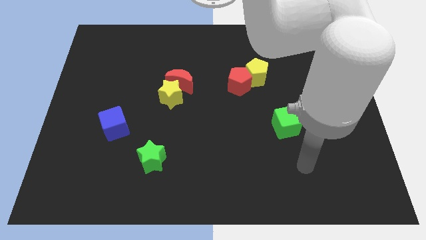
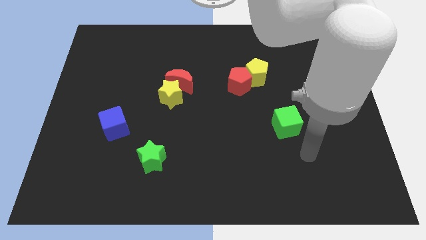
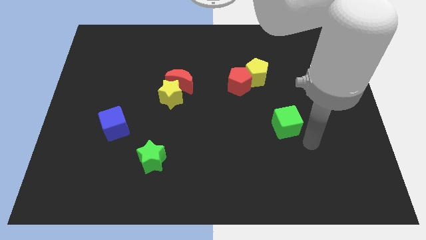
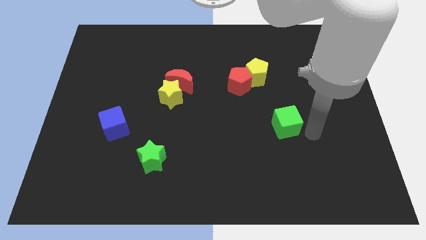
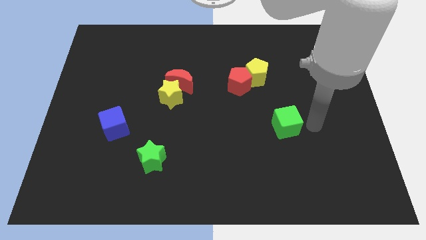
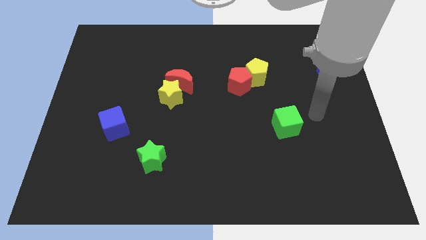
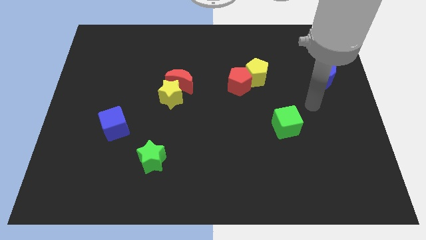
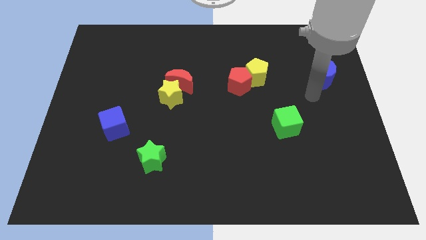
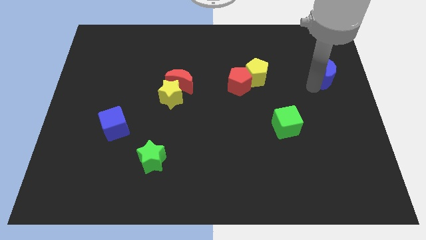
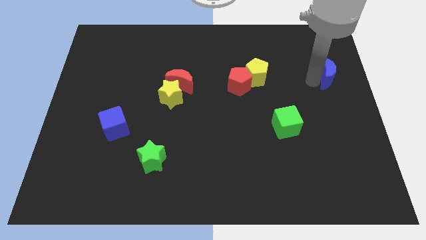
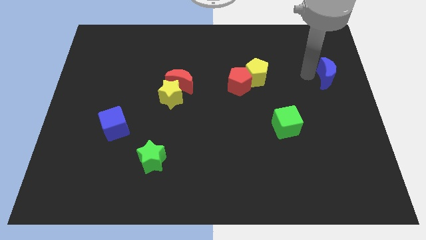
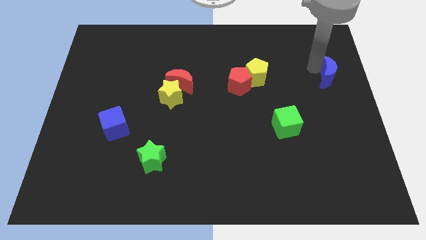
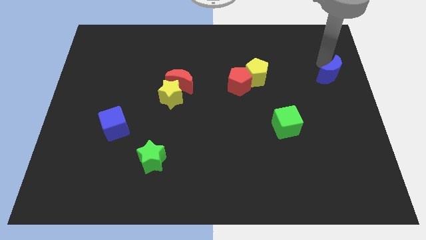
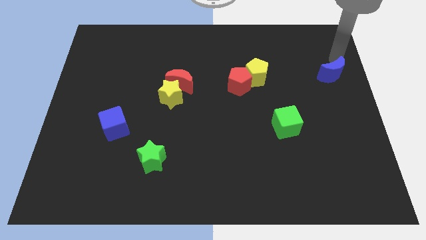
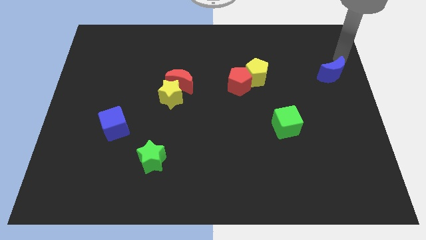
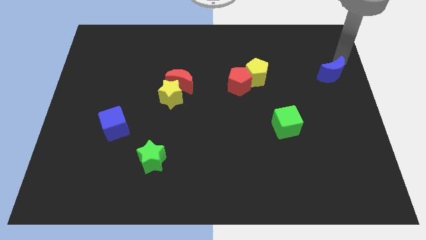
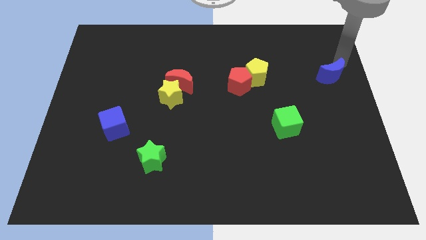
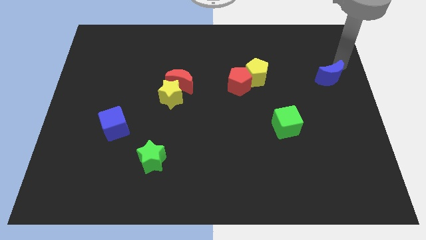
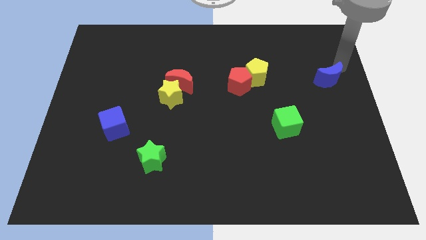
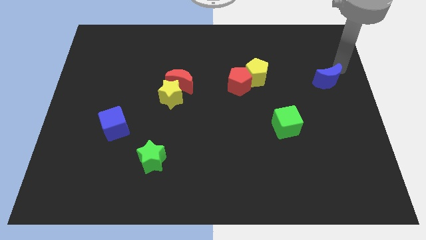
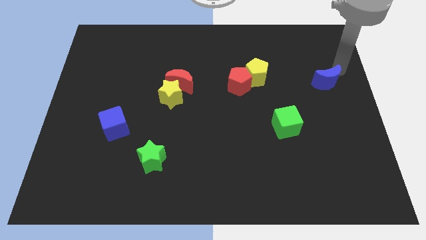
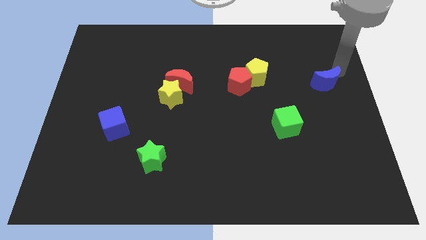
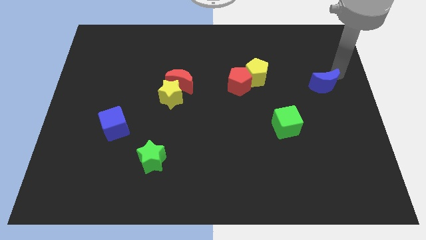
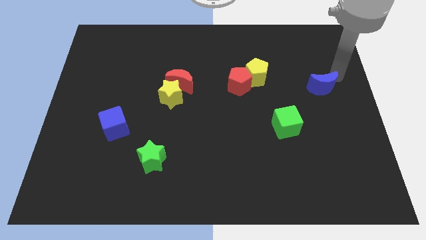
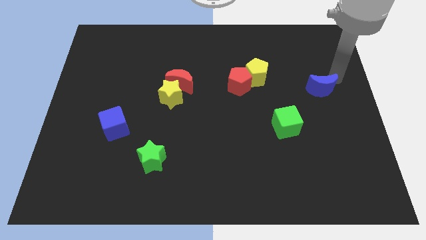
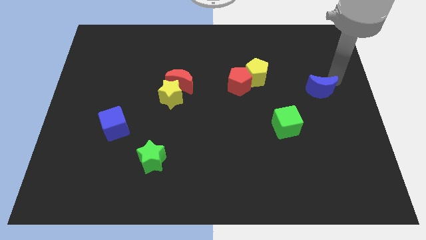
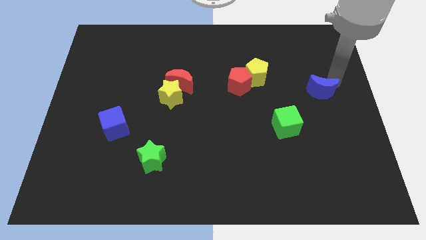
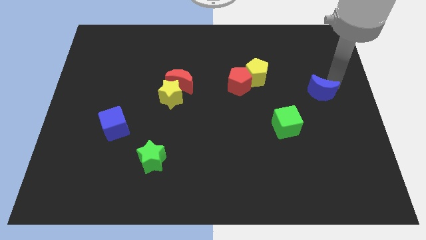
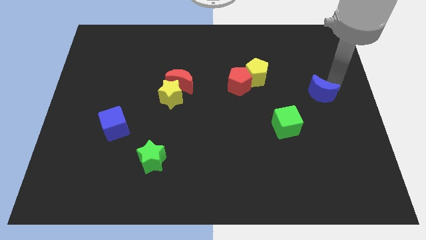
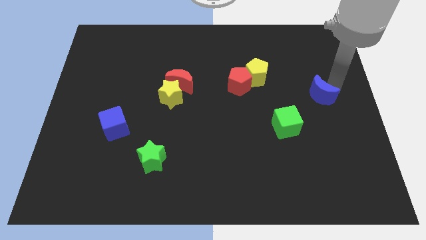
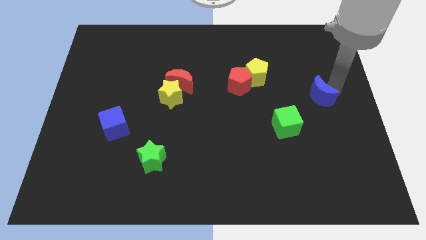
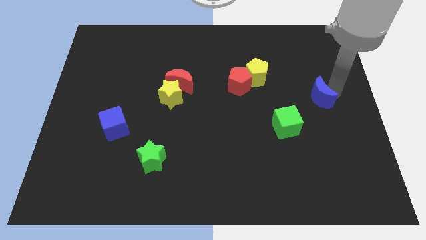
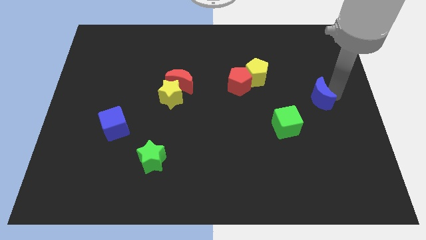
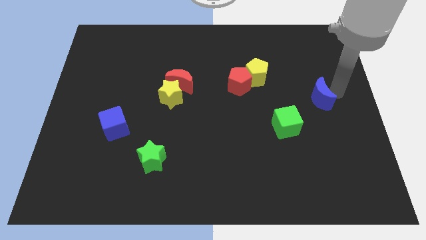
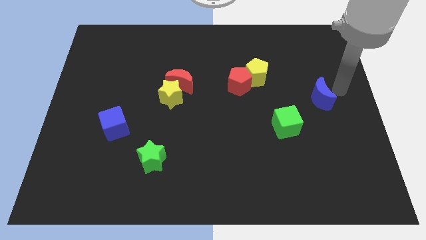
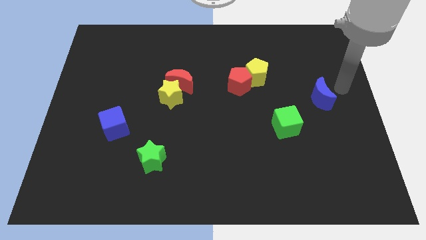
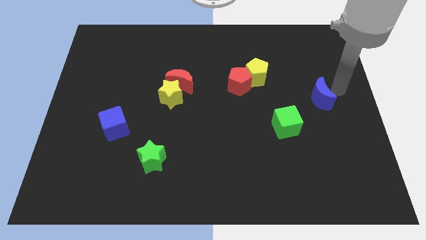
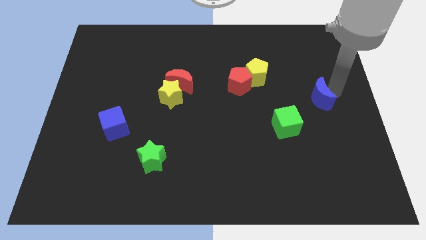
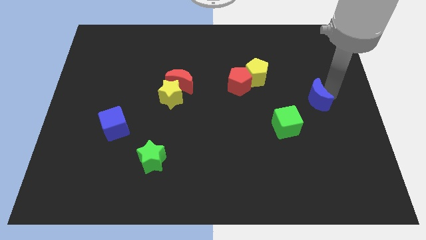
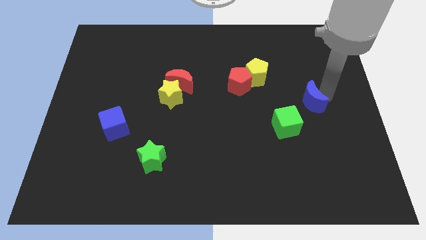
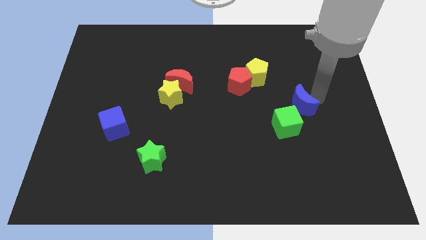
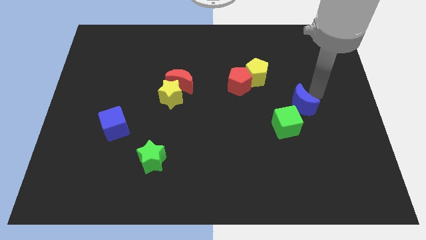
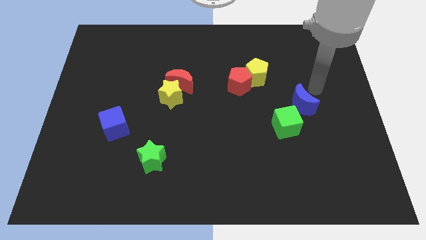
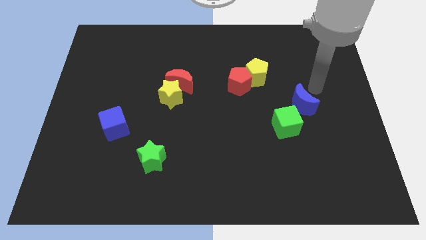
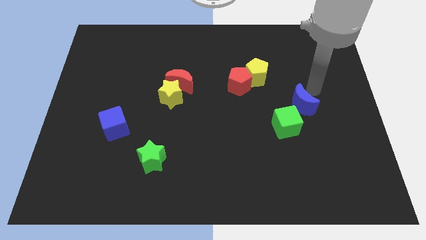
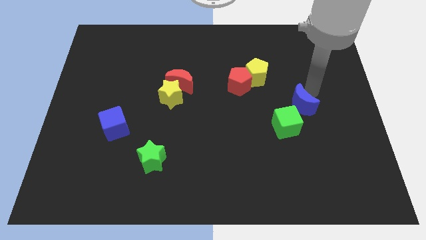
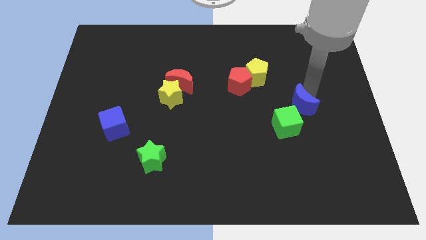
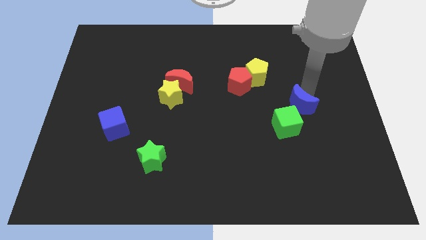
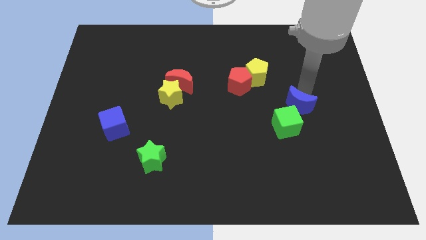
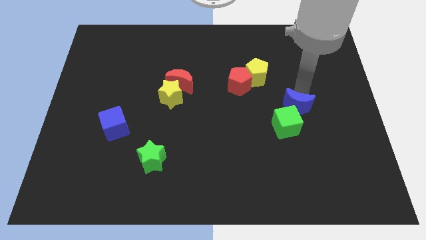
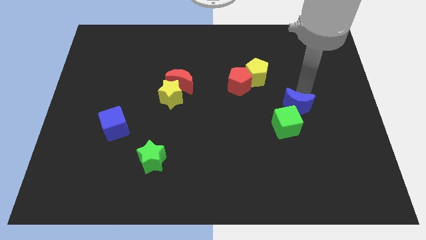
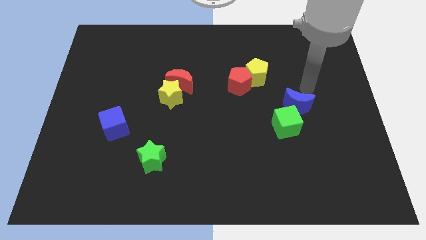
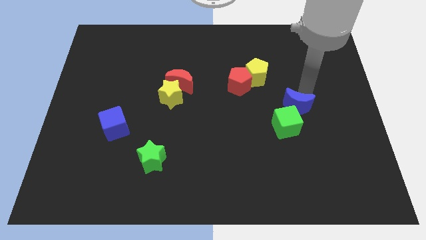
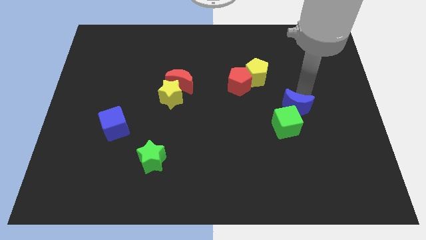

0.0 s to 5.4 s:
put the blue moon close to the green cube

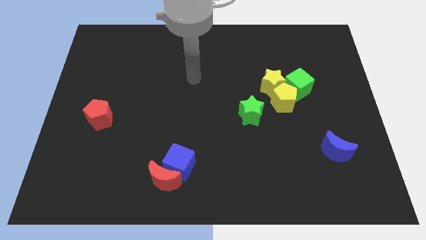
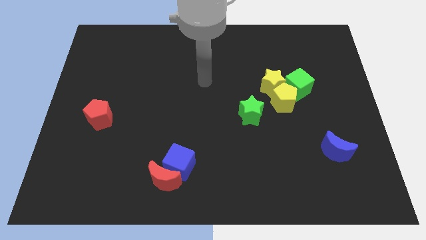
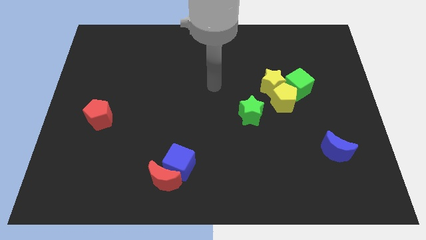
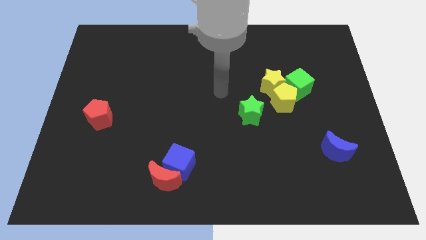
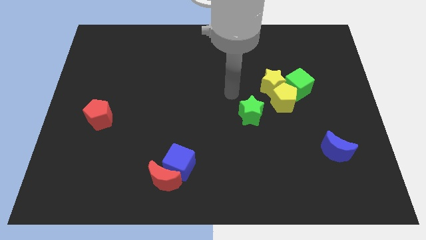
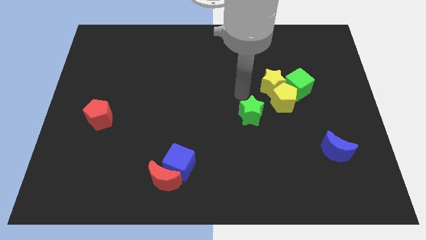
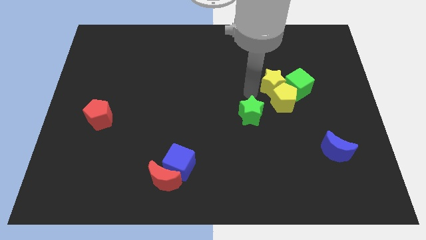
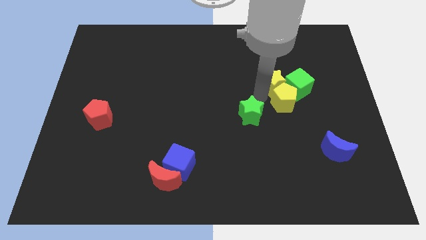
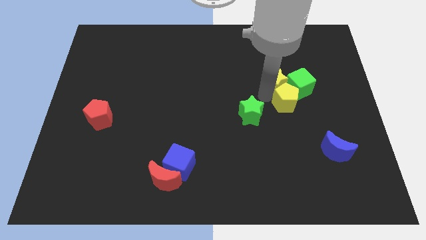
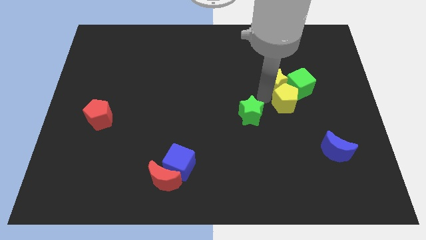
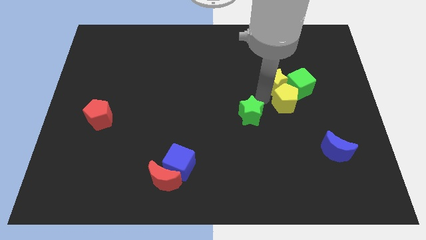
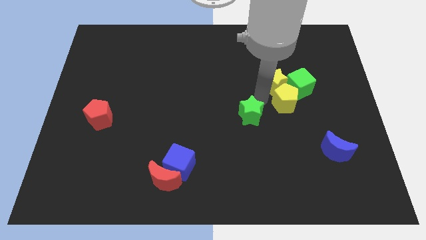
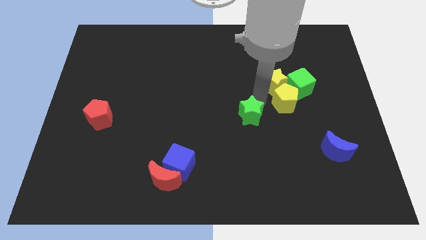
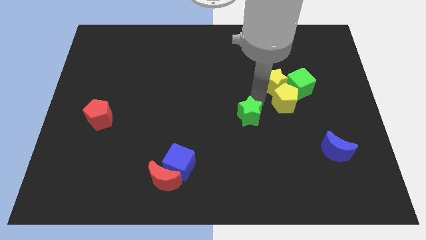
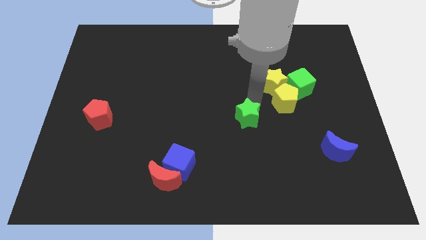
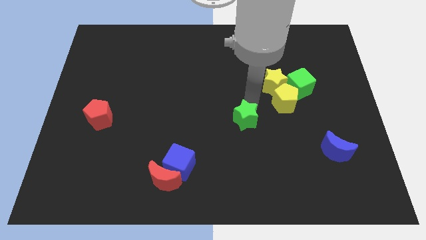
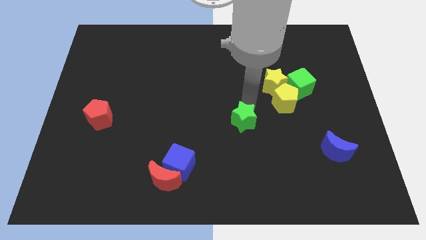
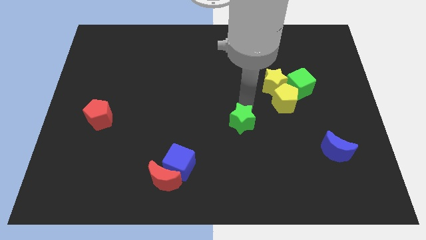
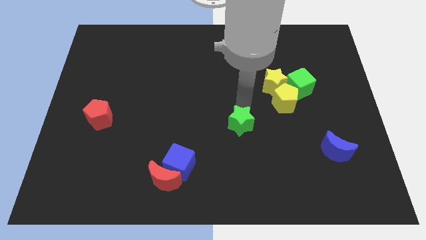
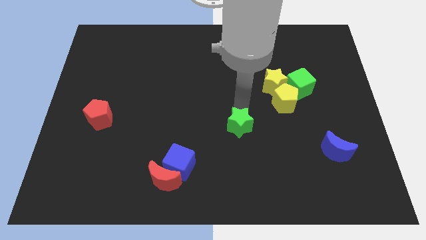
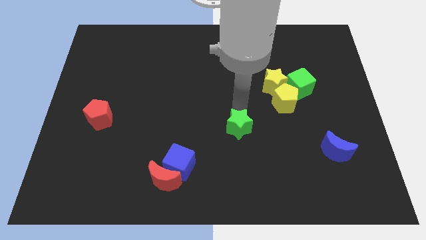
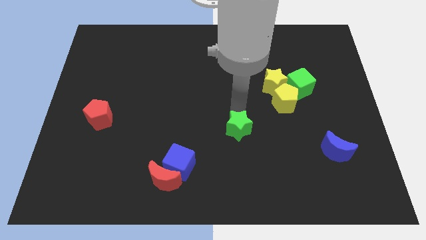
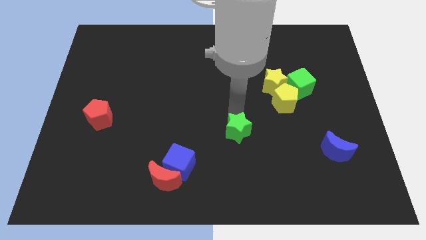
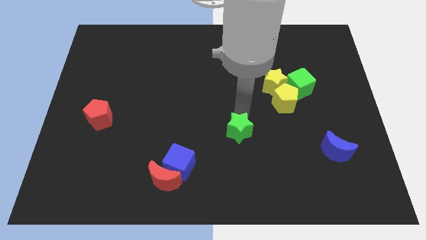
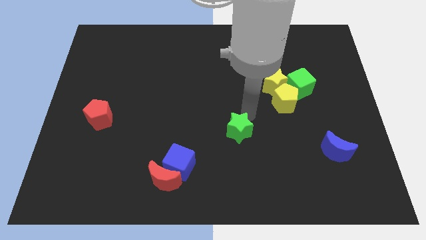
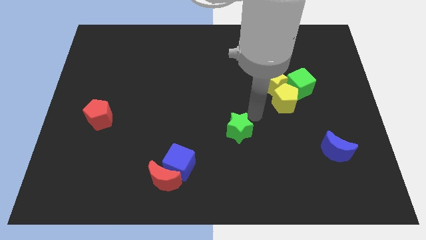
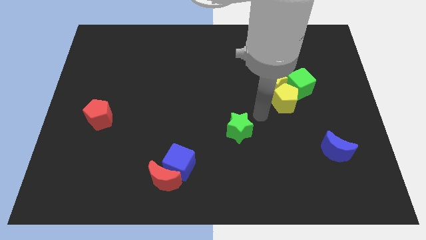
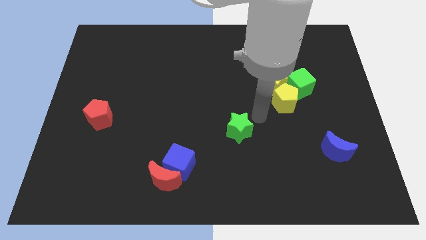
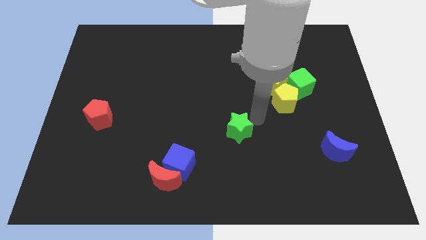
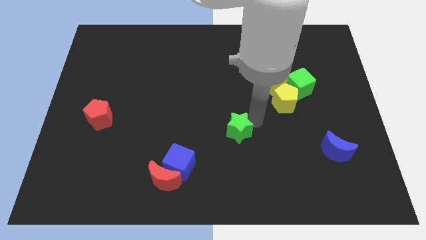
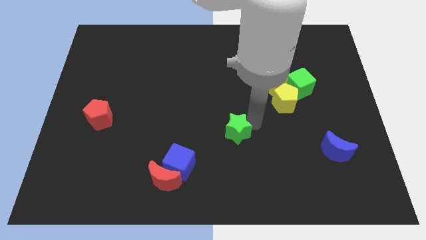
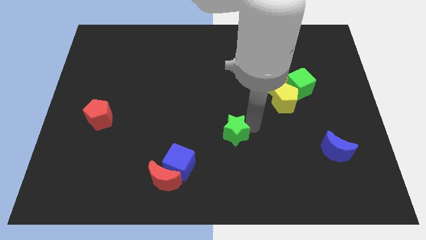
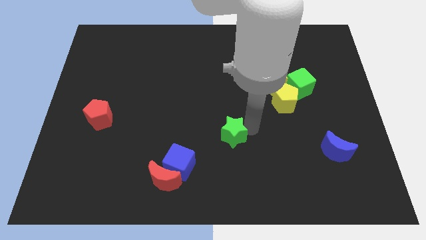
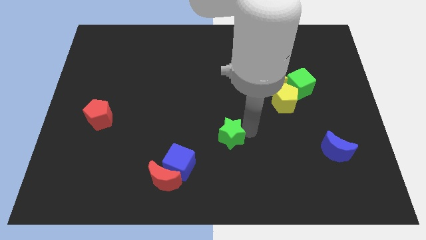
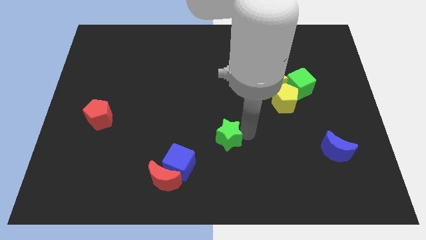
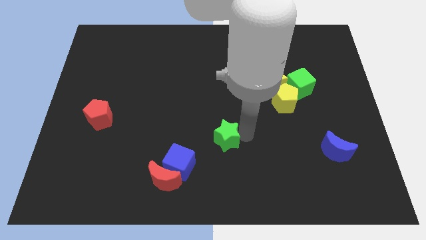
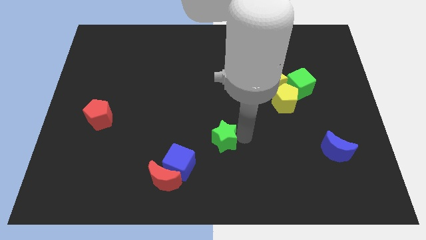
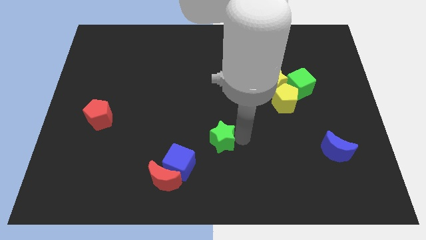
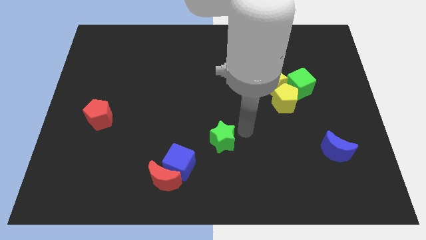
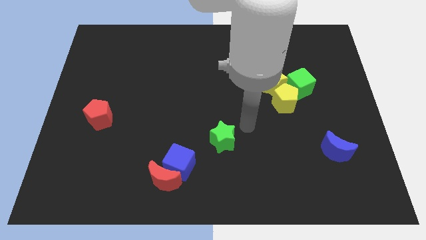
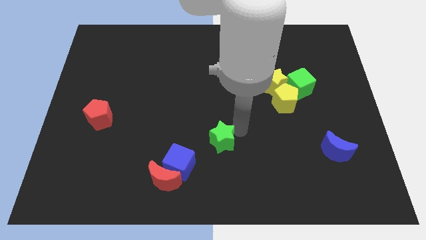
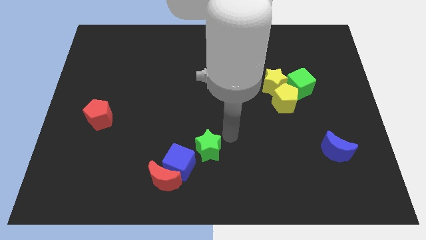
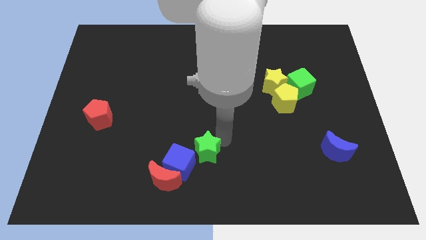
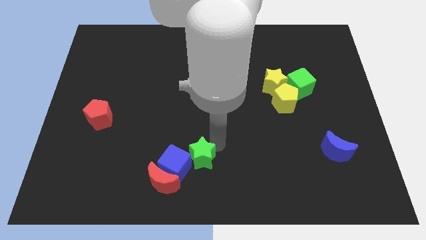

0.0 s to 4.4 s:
move the green star towards the blue cube
